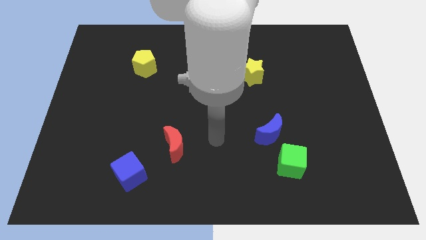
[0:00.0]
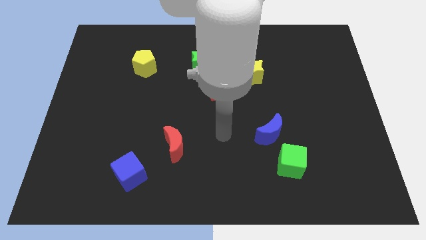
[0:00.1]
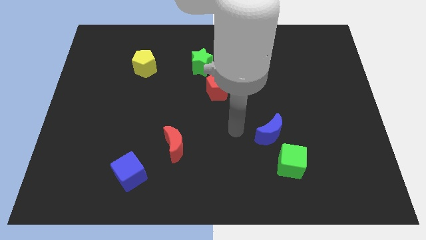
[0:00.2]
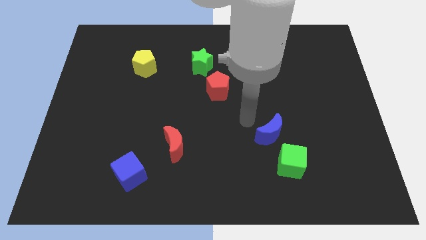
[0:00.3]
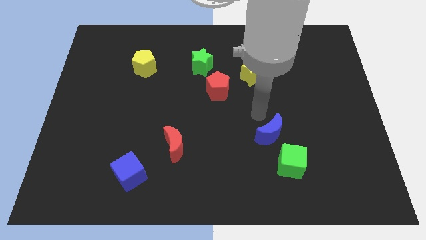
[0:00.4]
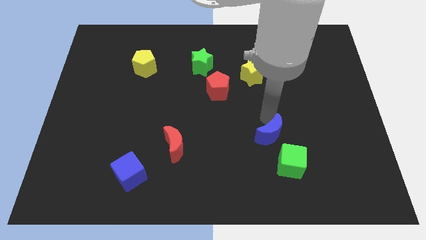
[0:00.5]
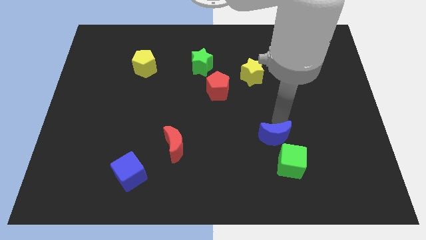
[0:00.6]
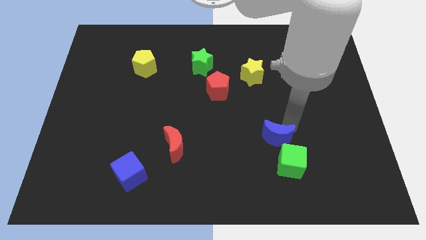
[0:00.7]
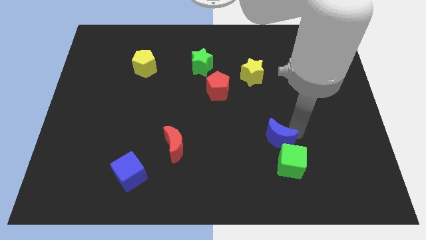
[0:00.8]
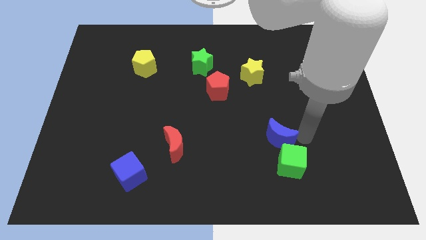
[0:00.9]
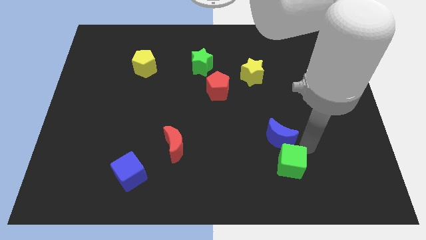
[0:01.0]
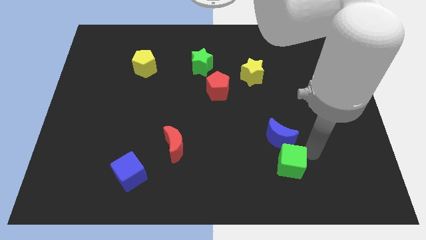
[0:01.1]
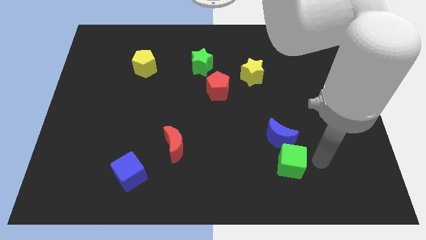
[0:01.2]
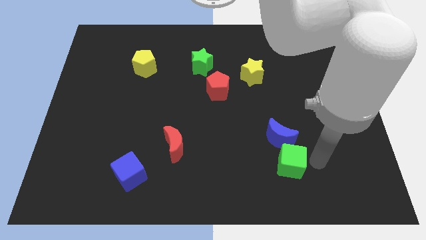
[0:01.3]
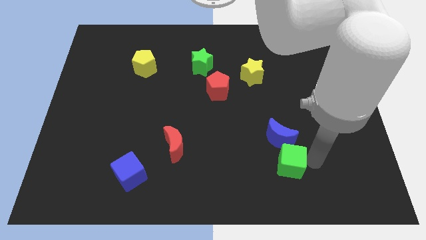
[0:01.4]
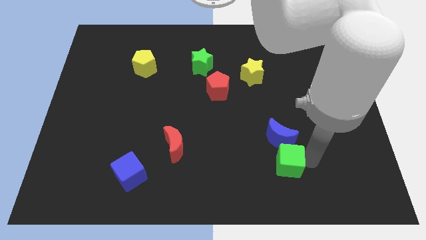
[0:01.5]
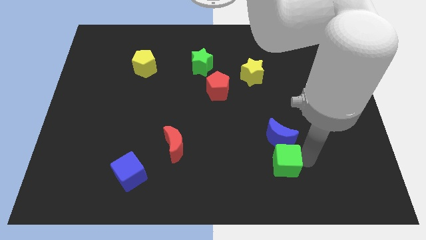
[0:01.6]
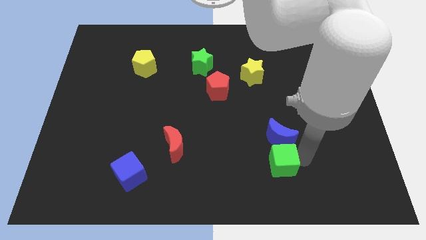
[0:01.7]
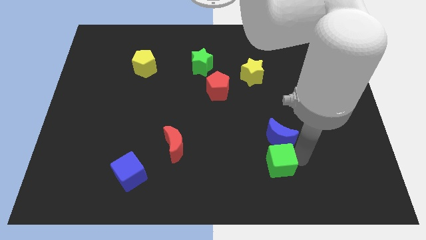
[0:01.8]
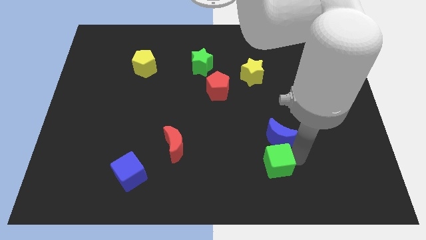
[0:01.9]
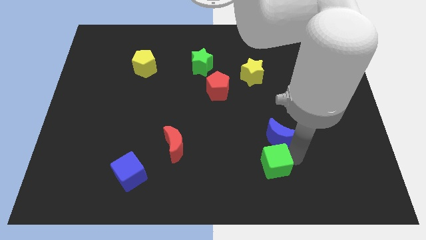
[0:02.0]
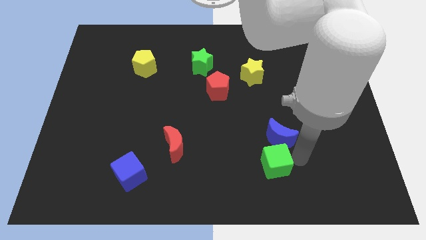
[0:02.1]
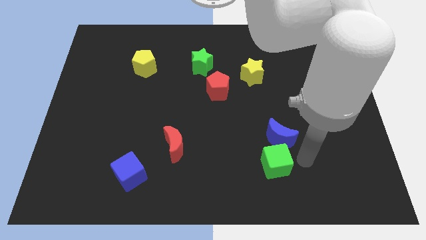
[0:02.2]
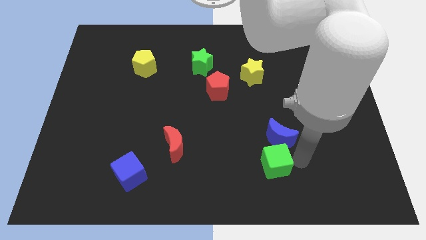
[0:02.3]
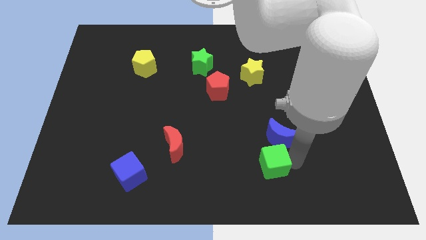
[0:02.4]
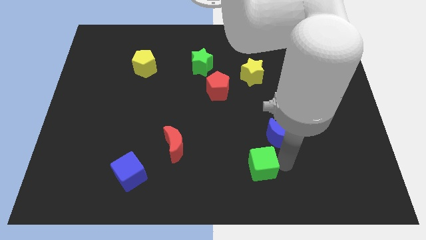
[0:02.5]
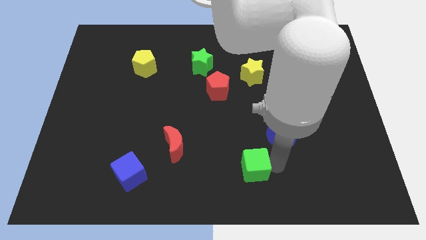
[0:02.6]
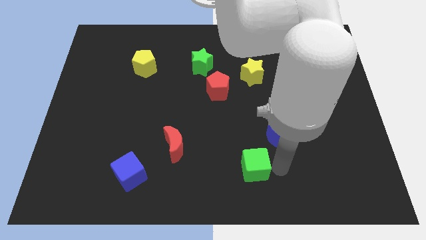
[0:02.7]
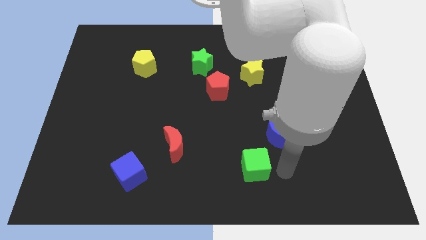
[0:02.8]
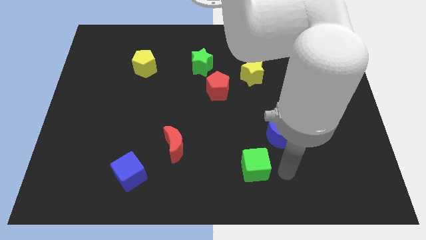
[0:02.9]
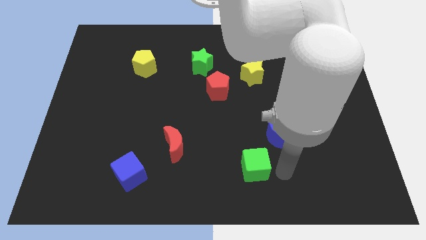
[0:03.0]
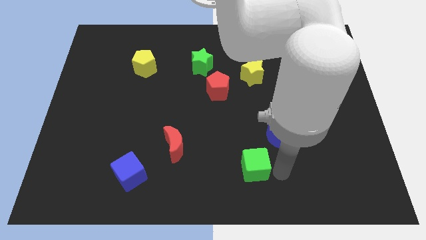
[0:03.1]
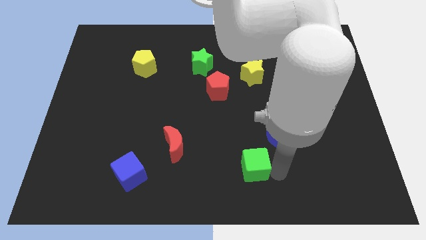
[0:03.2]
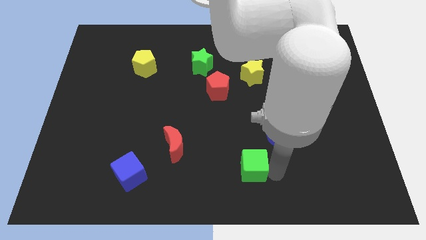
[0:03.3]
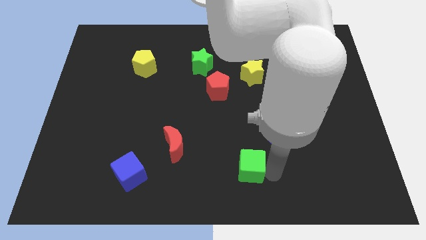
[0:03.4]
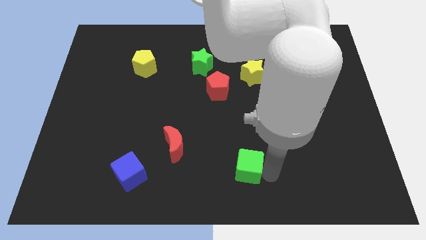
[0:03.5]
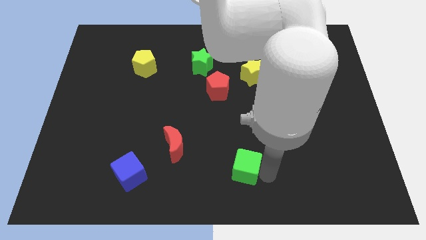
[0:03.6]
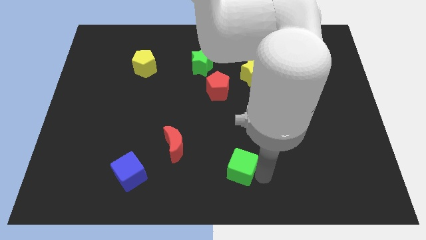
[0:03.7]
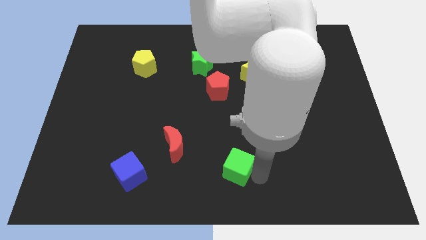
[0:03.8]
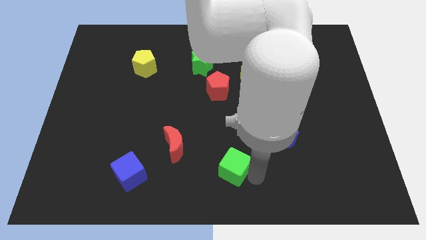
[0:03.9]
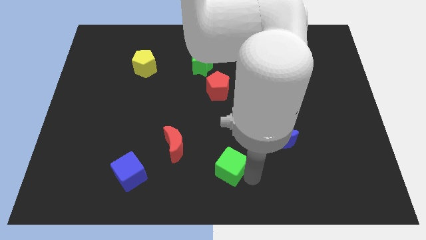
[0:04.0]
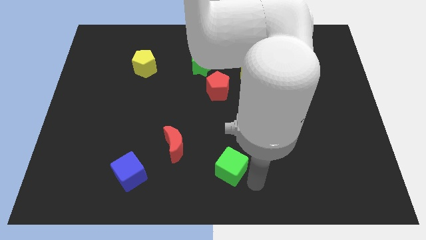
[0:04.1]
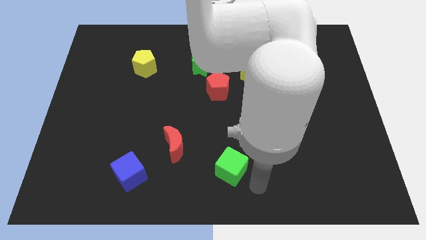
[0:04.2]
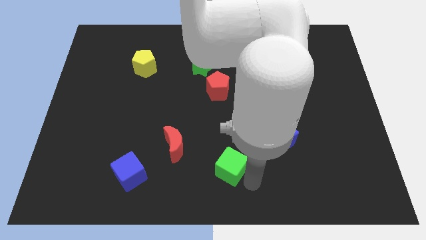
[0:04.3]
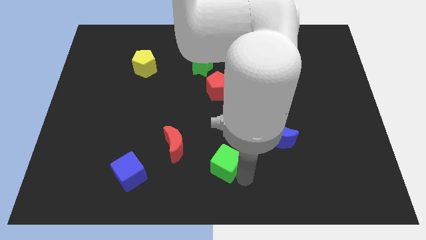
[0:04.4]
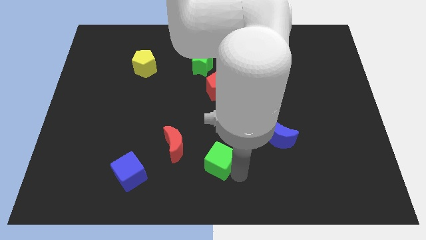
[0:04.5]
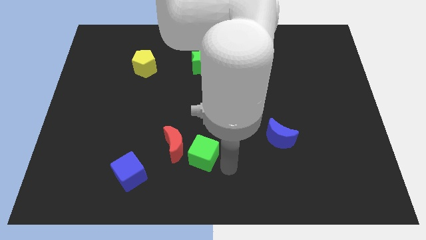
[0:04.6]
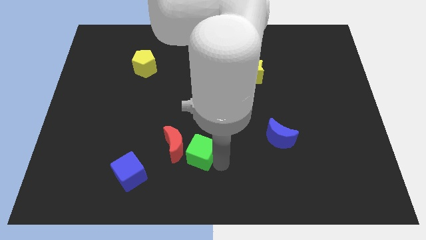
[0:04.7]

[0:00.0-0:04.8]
move the green cube close to the red moon

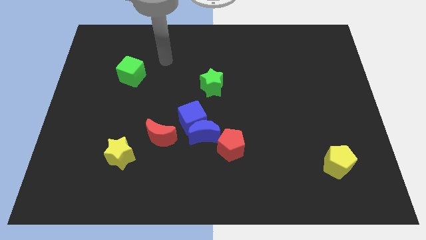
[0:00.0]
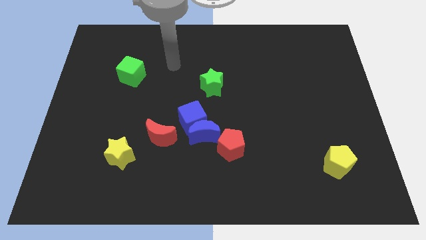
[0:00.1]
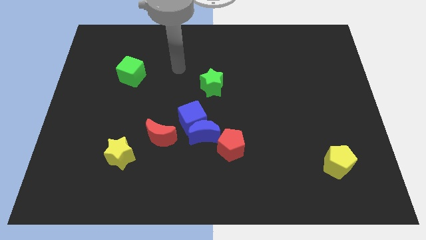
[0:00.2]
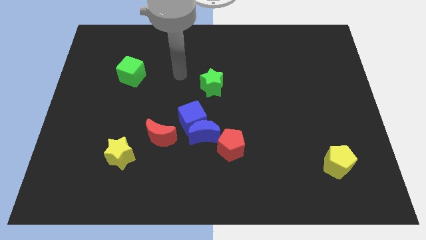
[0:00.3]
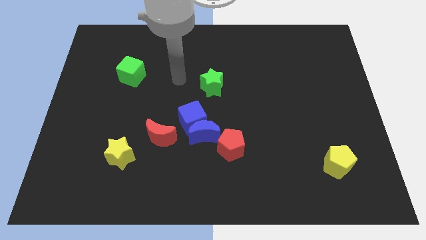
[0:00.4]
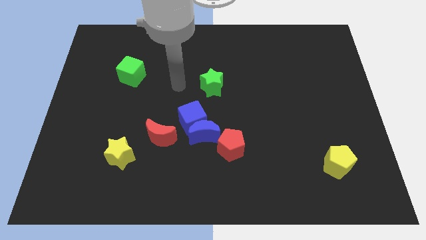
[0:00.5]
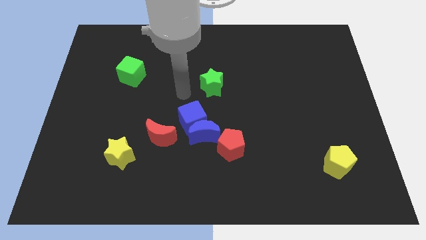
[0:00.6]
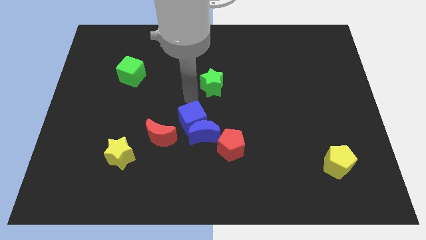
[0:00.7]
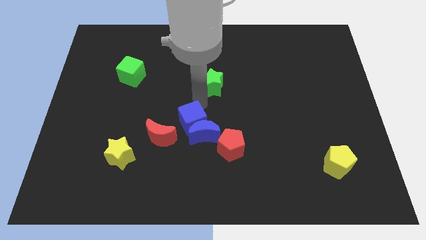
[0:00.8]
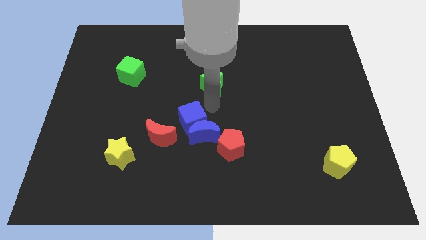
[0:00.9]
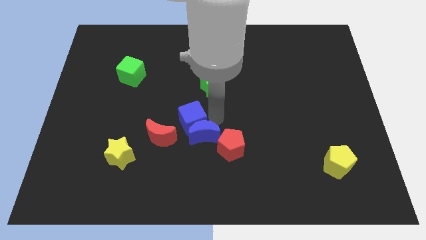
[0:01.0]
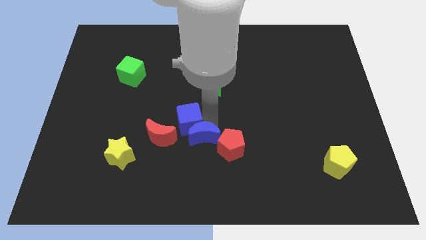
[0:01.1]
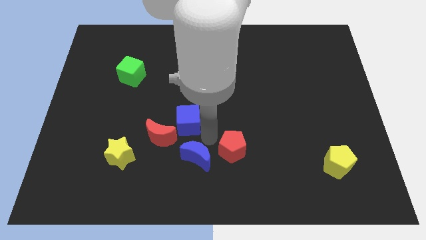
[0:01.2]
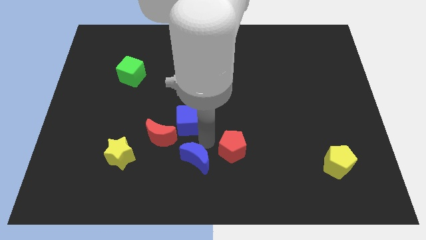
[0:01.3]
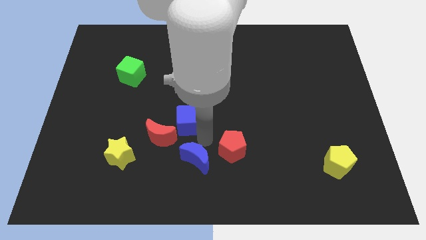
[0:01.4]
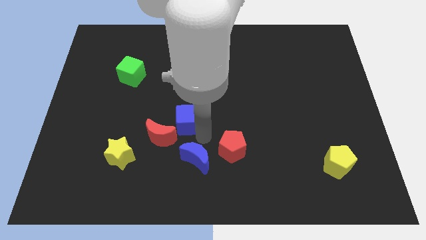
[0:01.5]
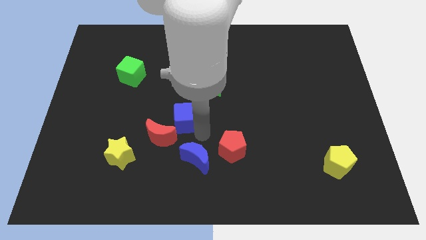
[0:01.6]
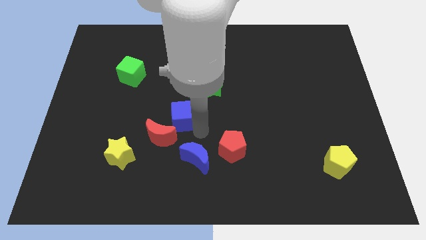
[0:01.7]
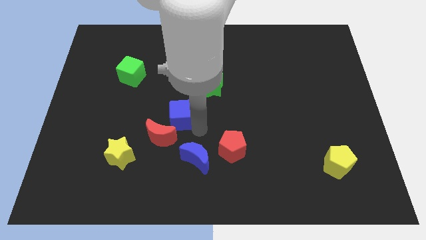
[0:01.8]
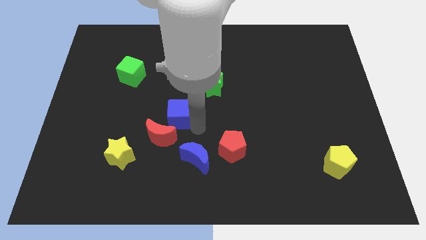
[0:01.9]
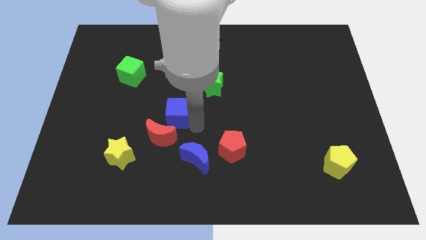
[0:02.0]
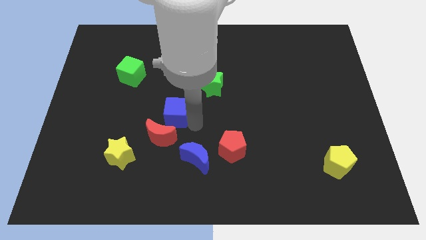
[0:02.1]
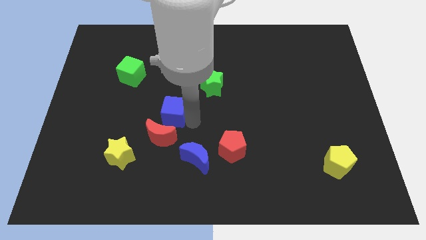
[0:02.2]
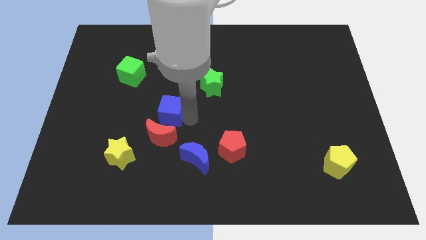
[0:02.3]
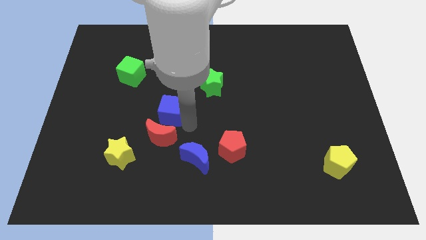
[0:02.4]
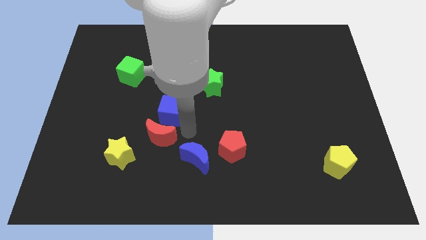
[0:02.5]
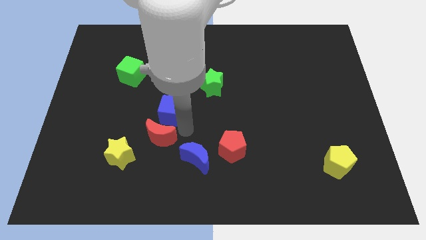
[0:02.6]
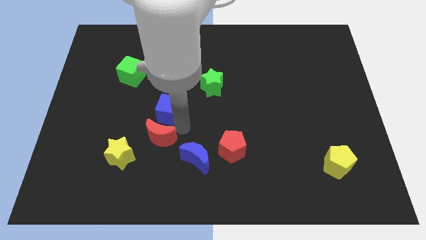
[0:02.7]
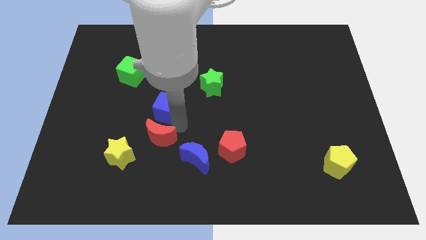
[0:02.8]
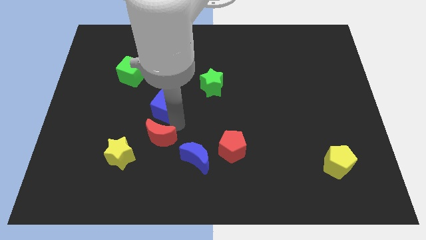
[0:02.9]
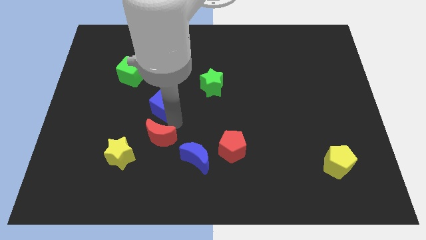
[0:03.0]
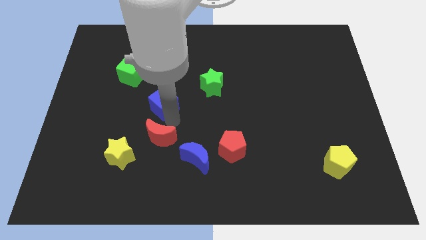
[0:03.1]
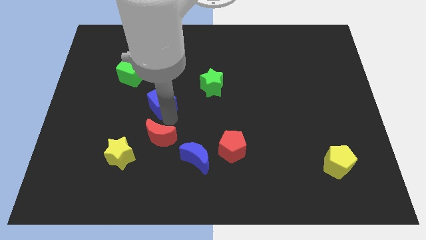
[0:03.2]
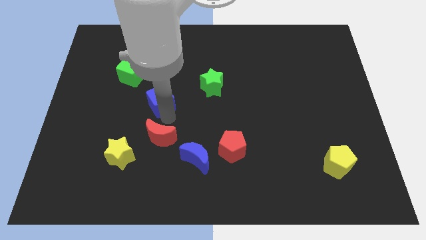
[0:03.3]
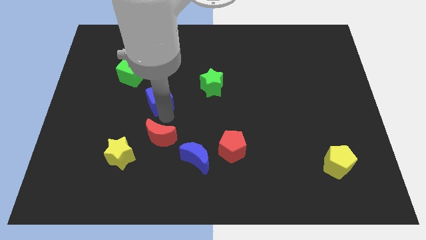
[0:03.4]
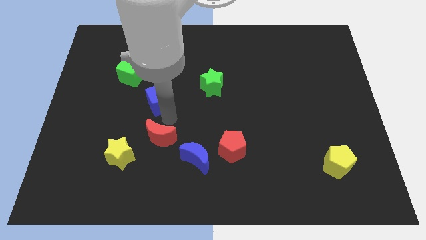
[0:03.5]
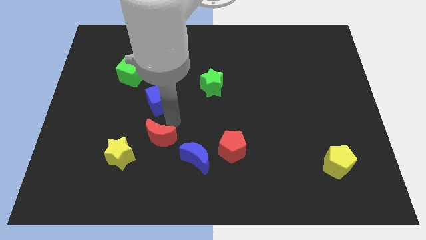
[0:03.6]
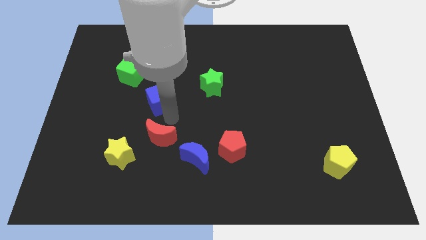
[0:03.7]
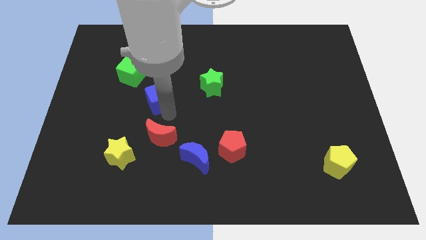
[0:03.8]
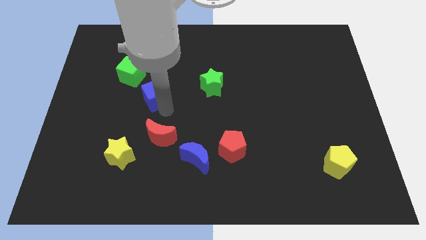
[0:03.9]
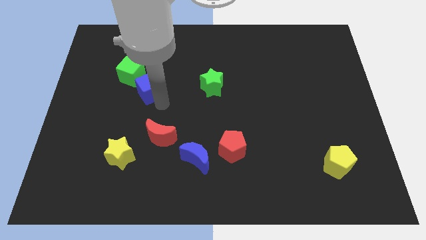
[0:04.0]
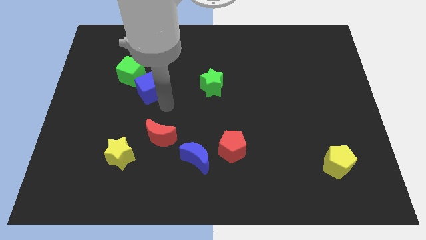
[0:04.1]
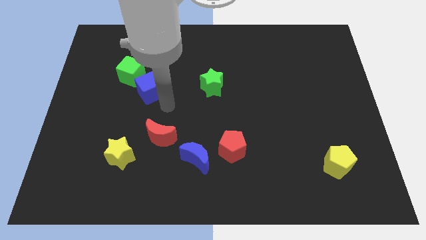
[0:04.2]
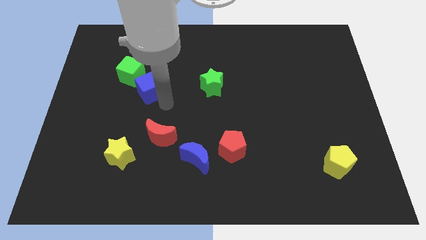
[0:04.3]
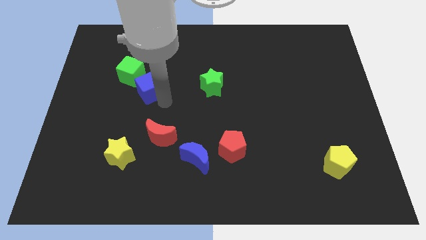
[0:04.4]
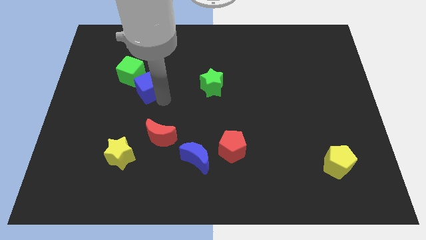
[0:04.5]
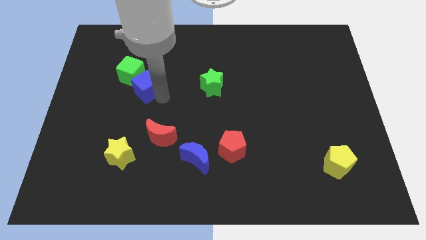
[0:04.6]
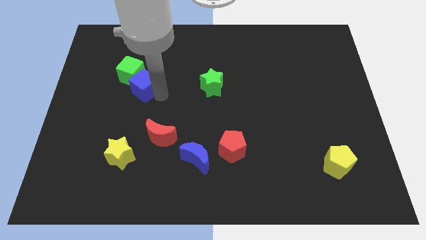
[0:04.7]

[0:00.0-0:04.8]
slide the blue cube close to the green cube
